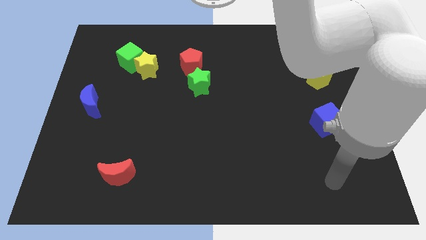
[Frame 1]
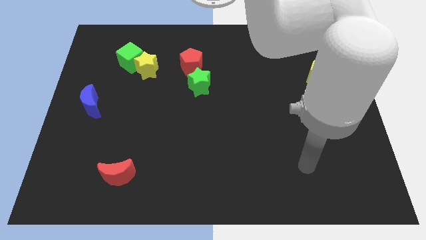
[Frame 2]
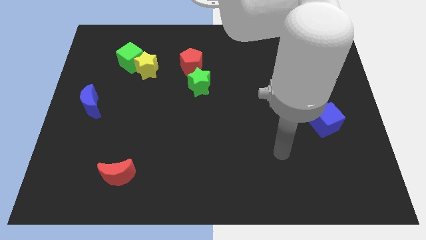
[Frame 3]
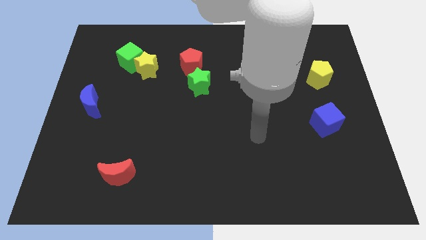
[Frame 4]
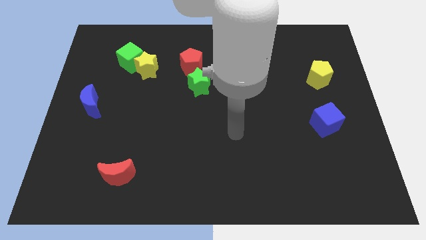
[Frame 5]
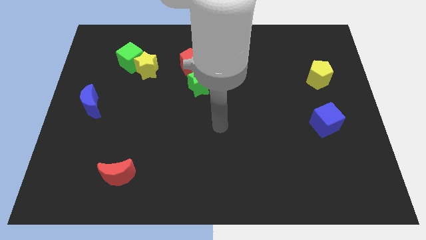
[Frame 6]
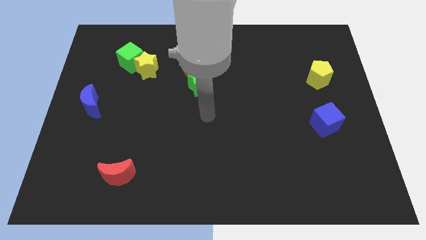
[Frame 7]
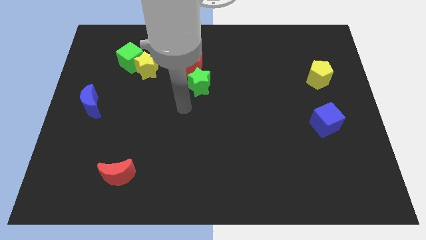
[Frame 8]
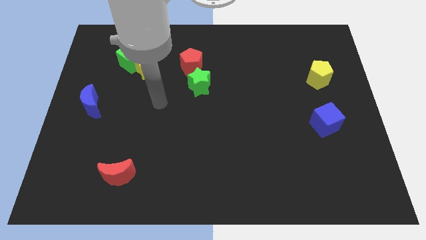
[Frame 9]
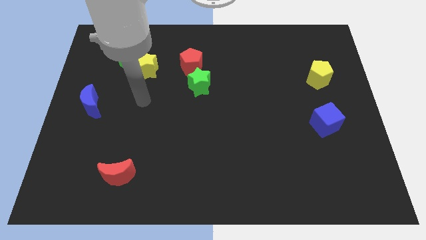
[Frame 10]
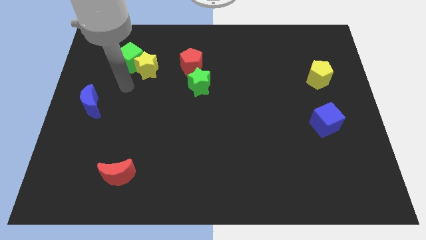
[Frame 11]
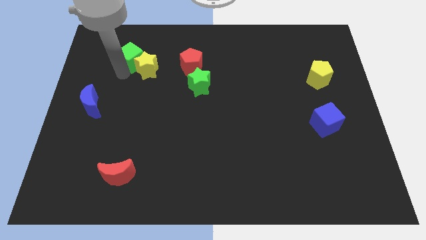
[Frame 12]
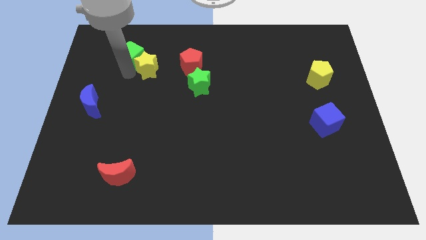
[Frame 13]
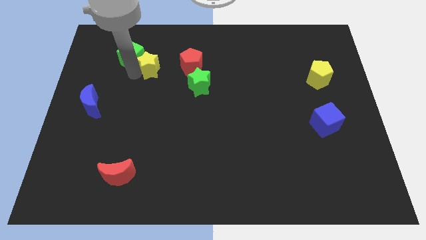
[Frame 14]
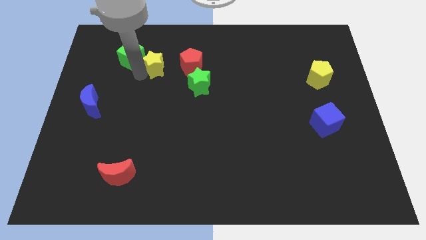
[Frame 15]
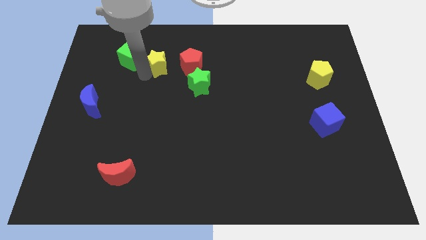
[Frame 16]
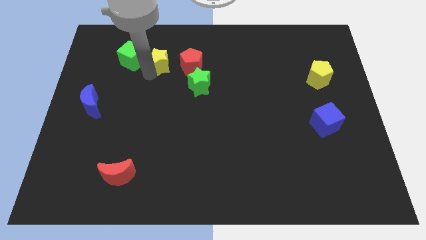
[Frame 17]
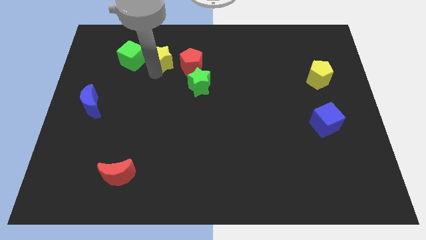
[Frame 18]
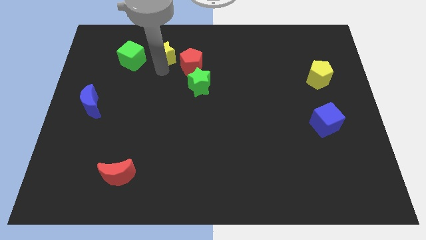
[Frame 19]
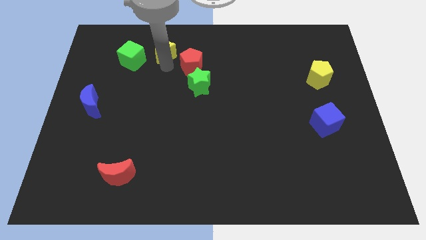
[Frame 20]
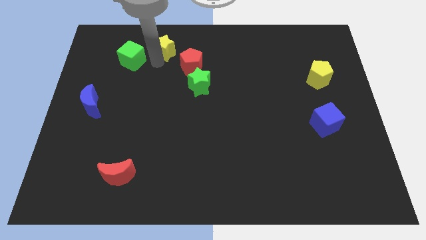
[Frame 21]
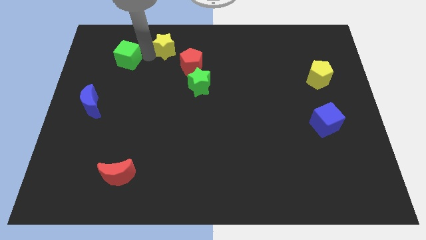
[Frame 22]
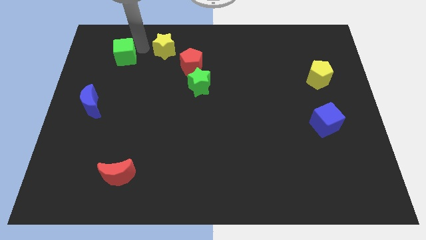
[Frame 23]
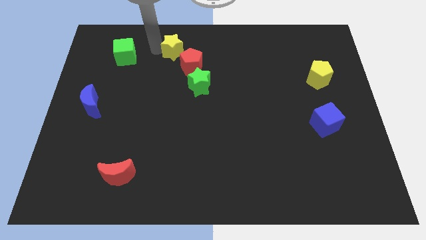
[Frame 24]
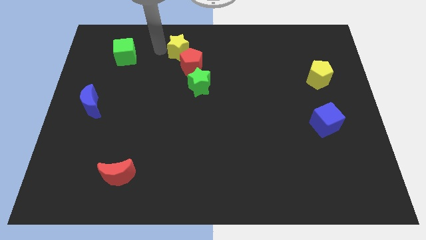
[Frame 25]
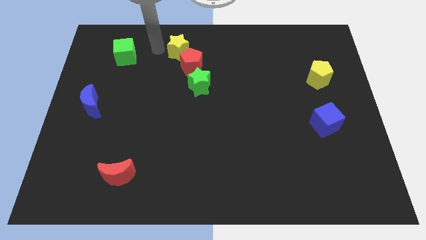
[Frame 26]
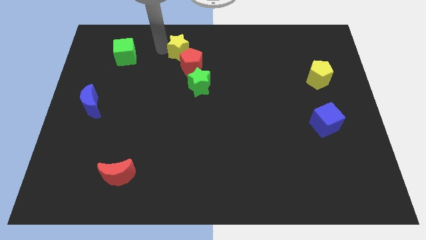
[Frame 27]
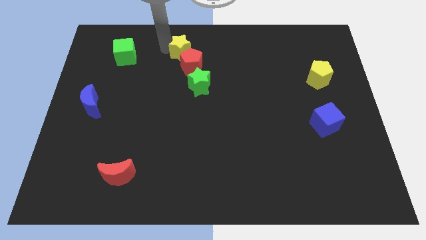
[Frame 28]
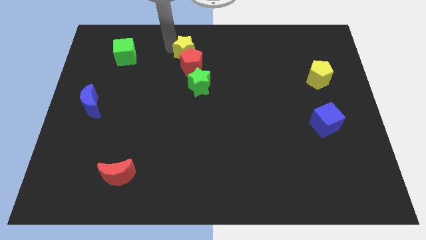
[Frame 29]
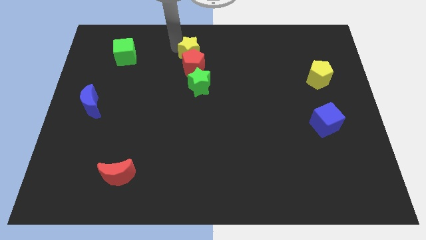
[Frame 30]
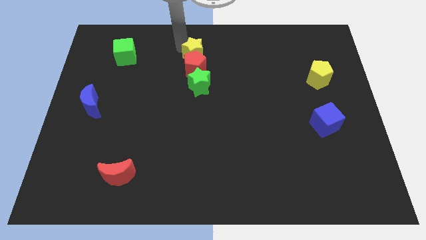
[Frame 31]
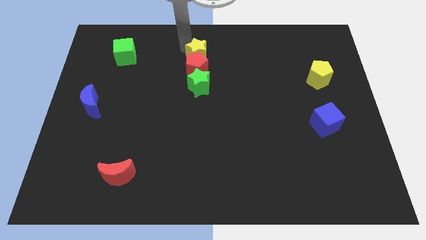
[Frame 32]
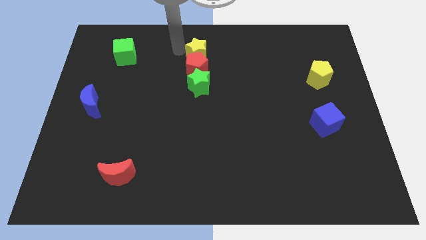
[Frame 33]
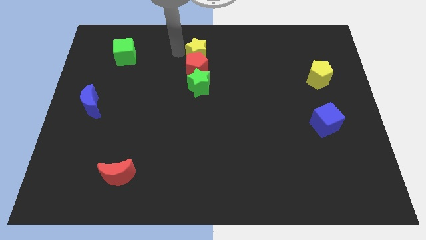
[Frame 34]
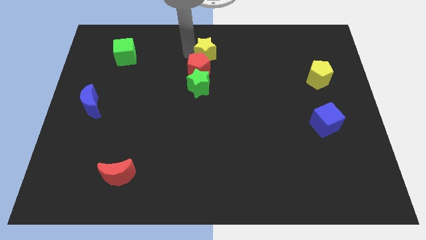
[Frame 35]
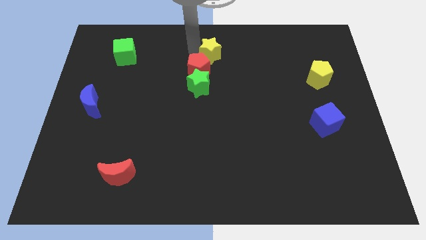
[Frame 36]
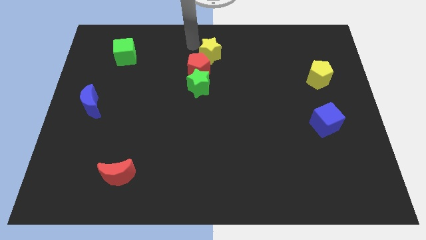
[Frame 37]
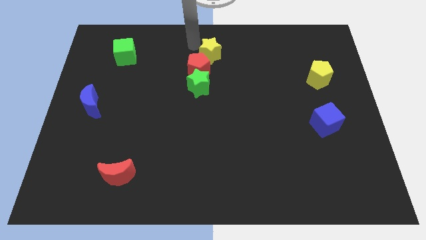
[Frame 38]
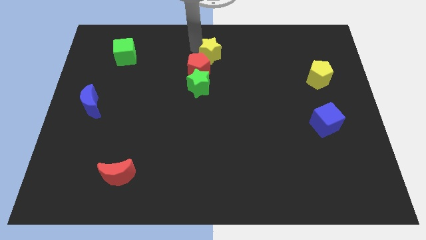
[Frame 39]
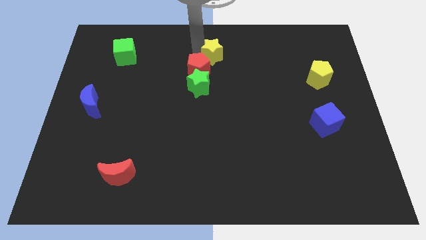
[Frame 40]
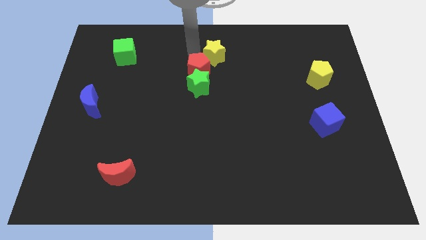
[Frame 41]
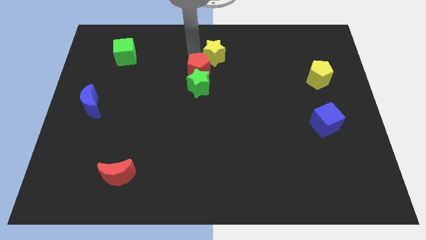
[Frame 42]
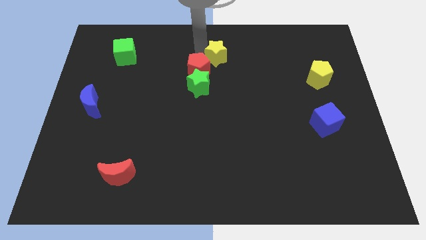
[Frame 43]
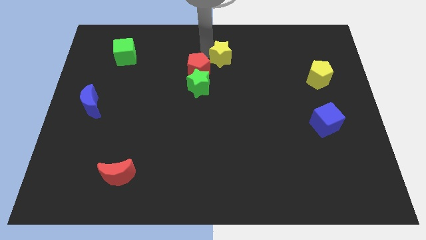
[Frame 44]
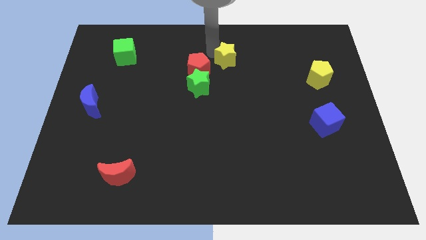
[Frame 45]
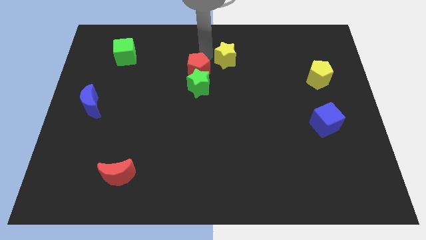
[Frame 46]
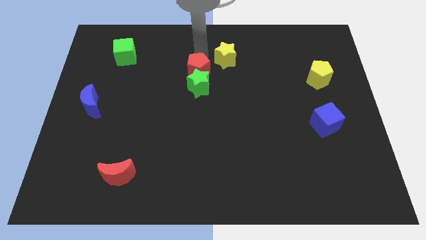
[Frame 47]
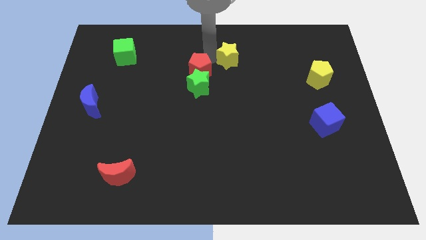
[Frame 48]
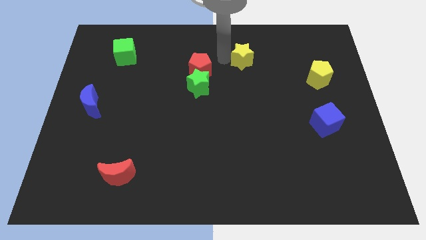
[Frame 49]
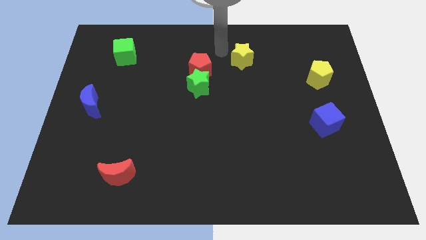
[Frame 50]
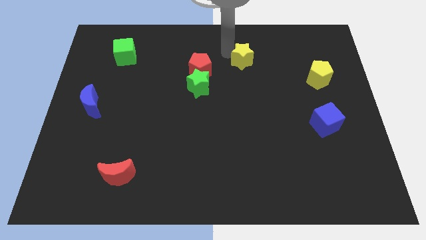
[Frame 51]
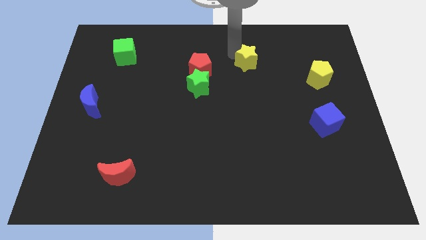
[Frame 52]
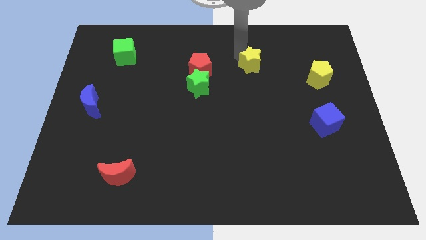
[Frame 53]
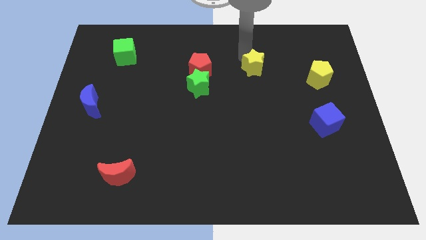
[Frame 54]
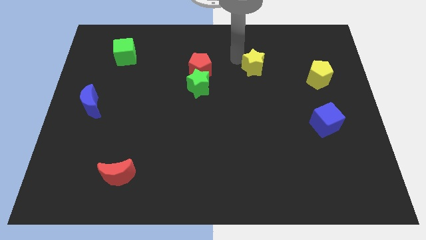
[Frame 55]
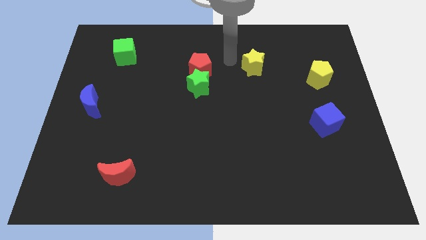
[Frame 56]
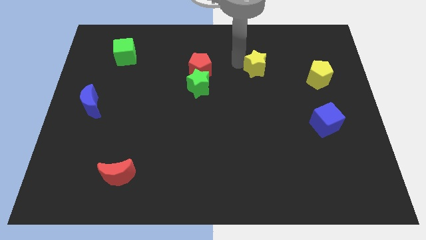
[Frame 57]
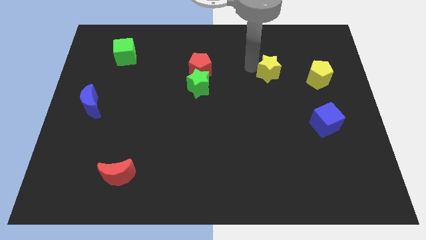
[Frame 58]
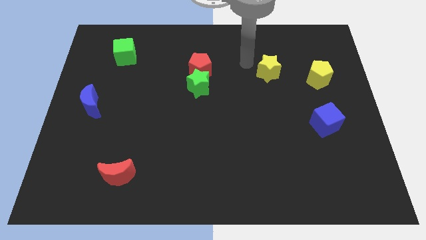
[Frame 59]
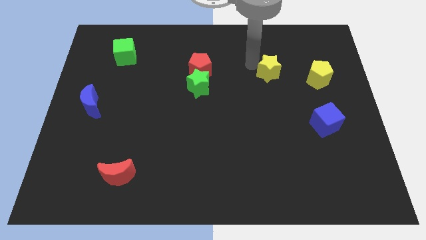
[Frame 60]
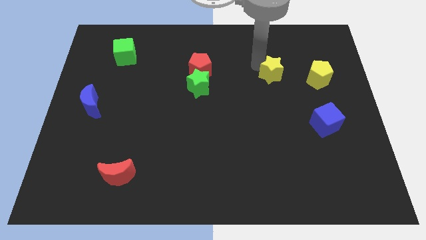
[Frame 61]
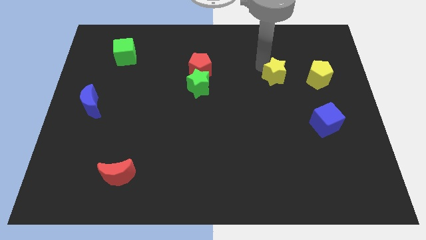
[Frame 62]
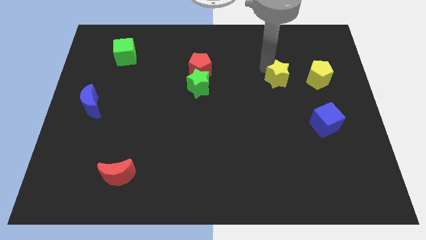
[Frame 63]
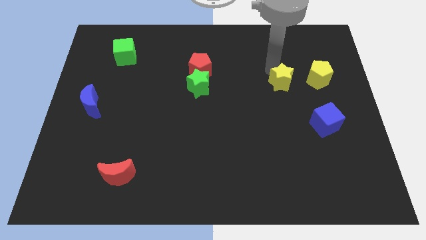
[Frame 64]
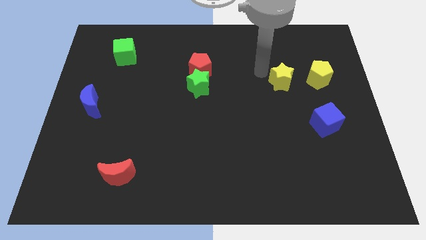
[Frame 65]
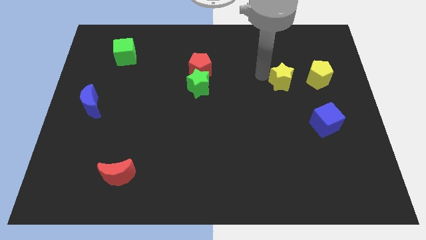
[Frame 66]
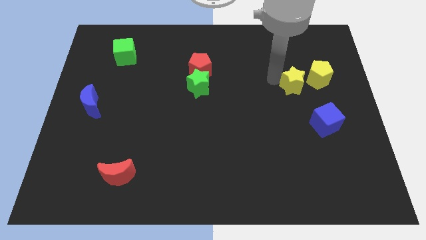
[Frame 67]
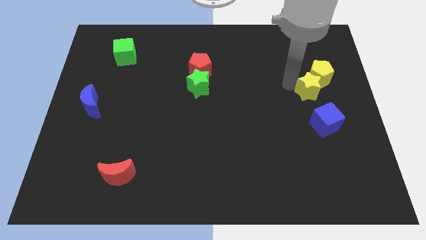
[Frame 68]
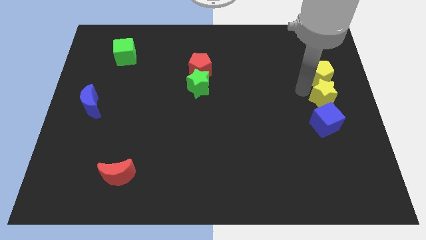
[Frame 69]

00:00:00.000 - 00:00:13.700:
push the yellow star to the right side

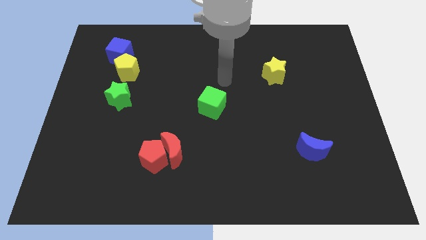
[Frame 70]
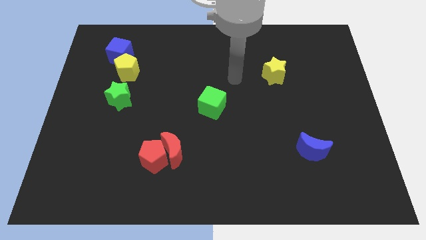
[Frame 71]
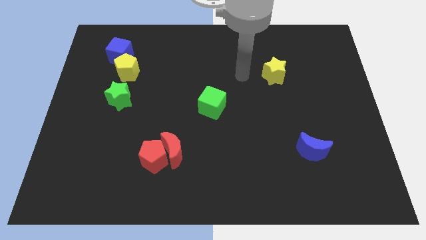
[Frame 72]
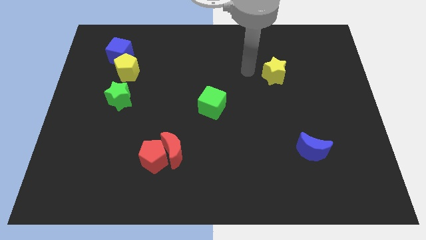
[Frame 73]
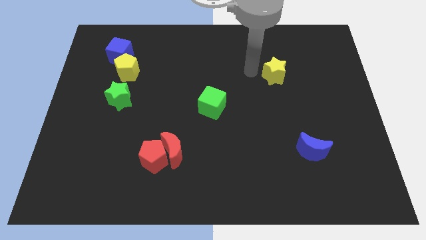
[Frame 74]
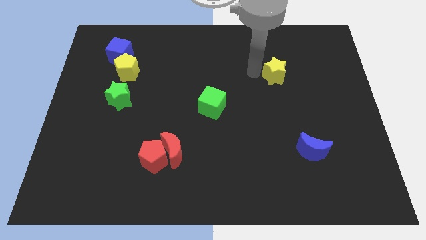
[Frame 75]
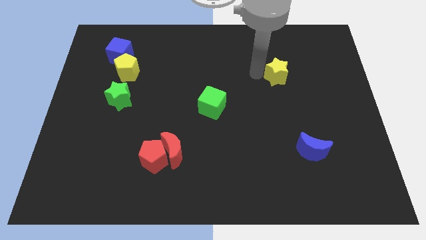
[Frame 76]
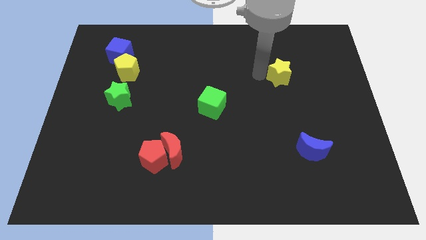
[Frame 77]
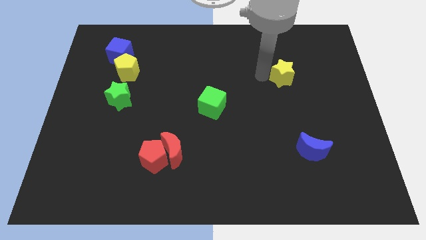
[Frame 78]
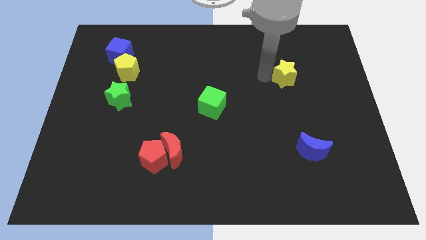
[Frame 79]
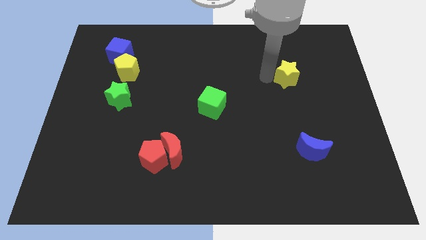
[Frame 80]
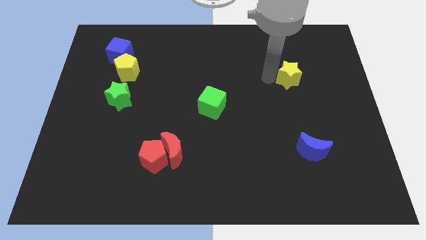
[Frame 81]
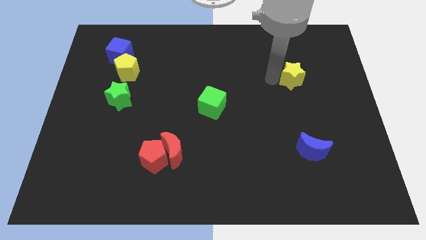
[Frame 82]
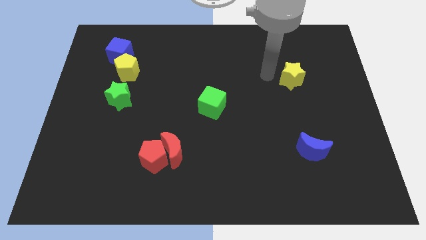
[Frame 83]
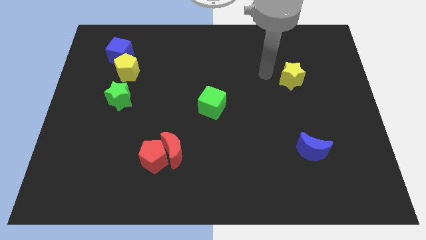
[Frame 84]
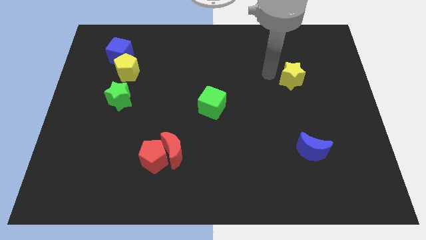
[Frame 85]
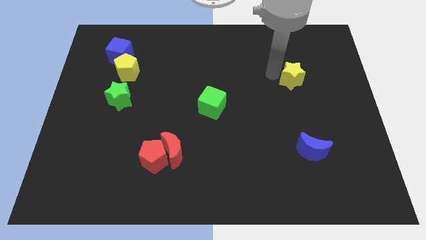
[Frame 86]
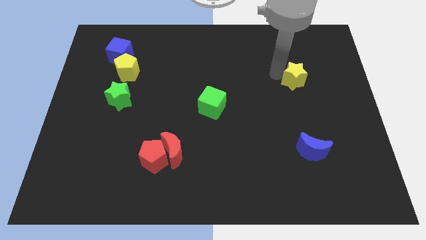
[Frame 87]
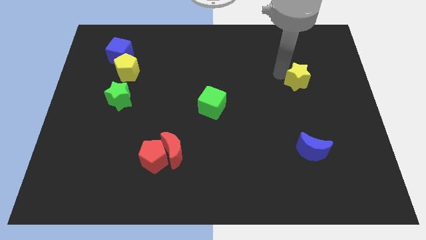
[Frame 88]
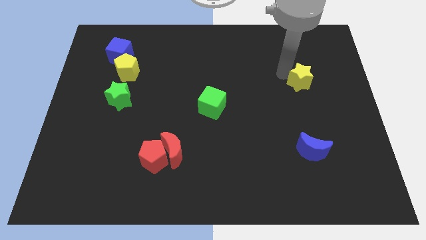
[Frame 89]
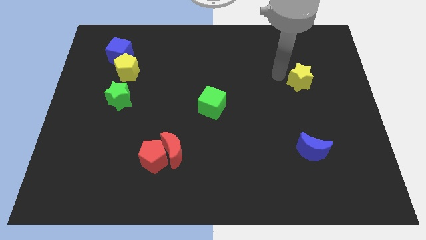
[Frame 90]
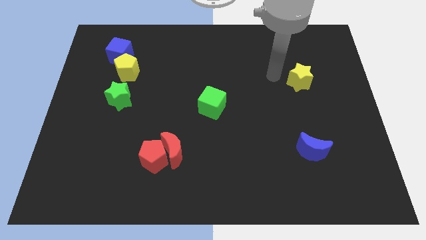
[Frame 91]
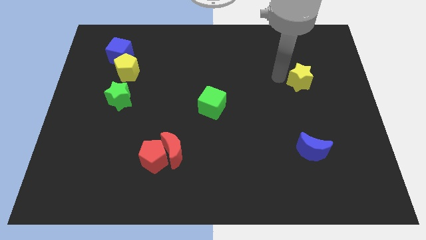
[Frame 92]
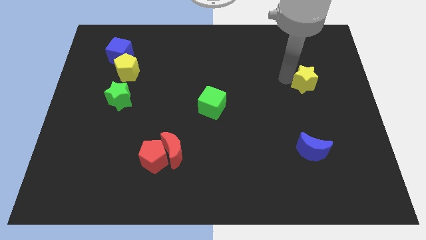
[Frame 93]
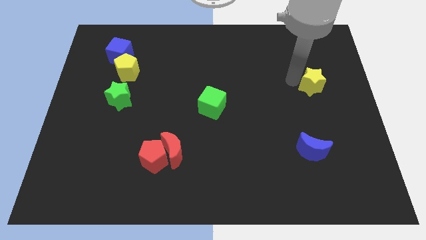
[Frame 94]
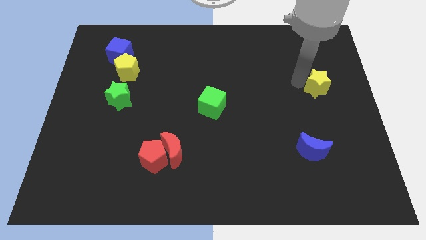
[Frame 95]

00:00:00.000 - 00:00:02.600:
push the yellow star to the center right
